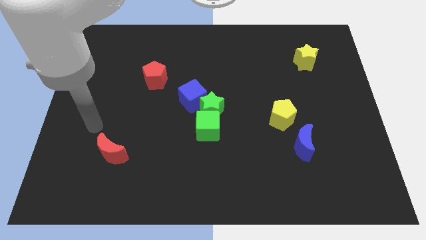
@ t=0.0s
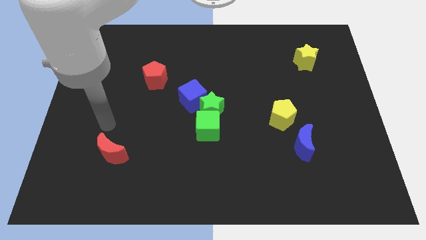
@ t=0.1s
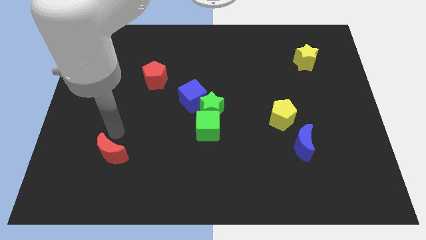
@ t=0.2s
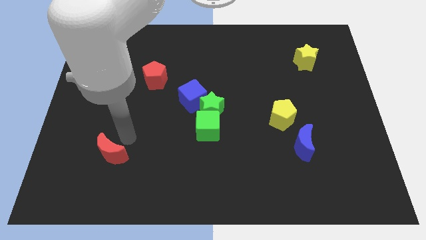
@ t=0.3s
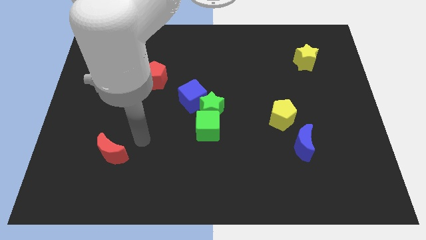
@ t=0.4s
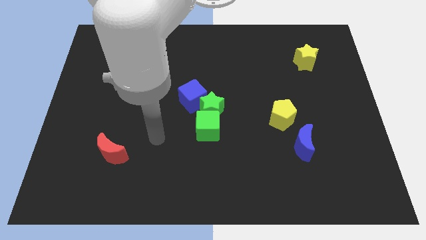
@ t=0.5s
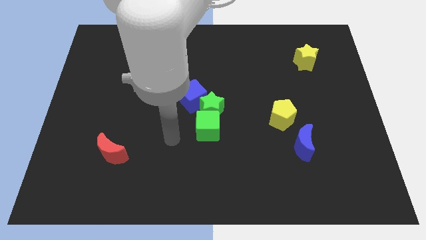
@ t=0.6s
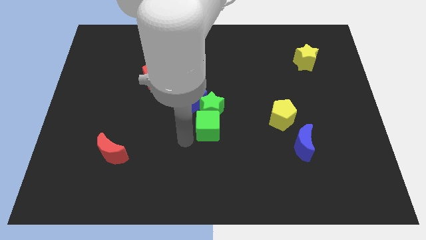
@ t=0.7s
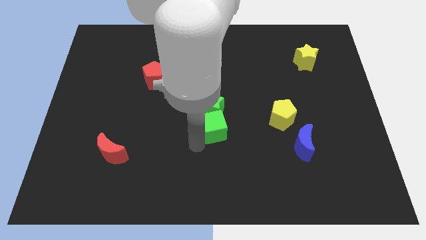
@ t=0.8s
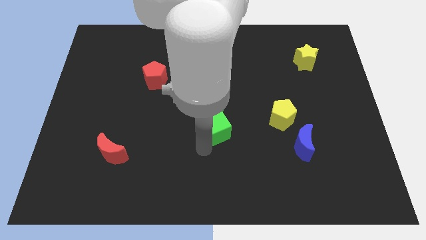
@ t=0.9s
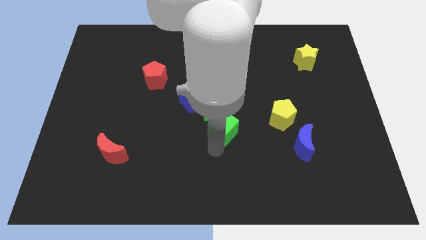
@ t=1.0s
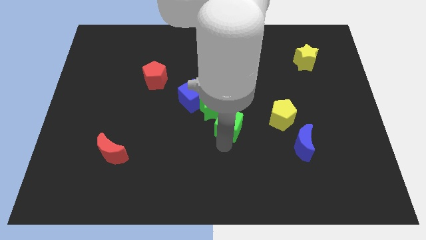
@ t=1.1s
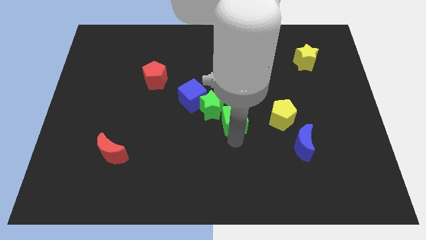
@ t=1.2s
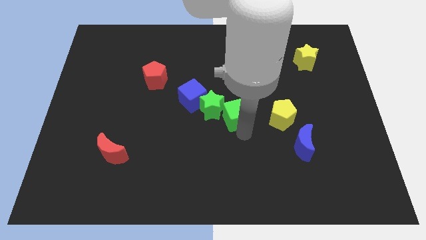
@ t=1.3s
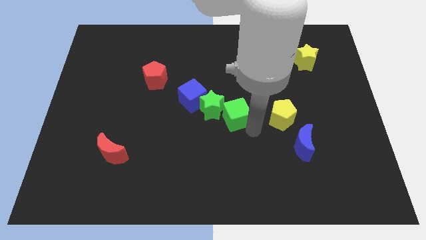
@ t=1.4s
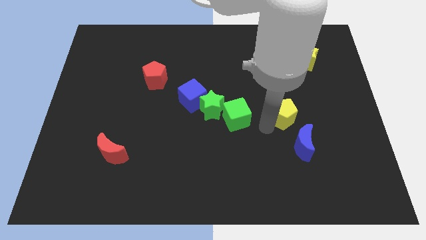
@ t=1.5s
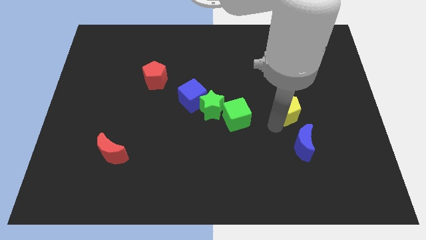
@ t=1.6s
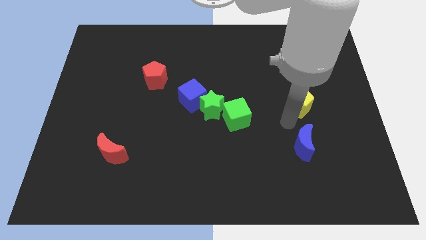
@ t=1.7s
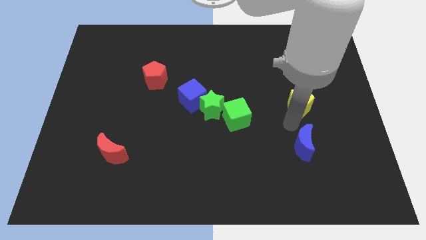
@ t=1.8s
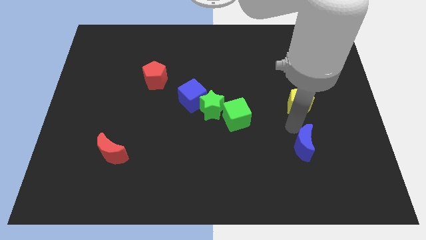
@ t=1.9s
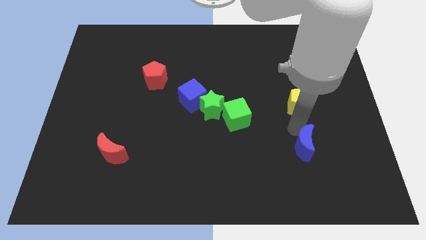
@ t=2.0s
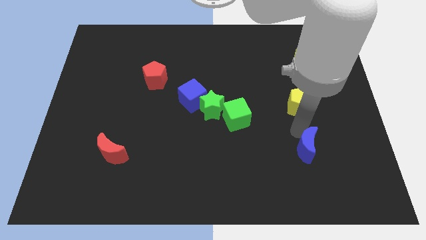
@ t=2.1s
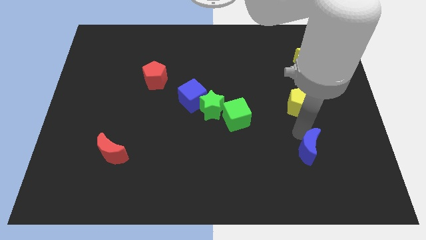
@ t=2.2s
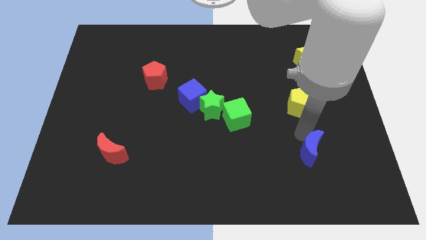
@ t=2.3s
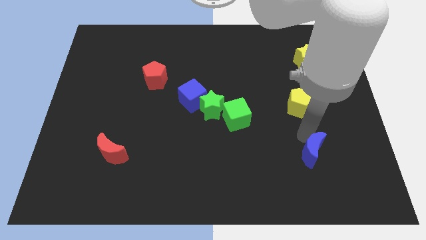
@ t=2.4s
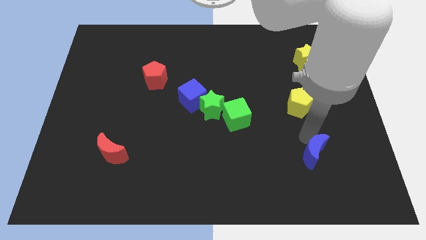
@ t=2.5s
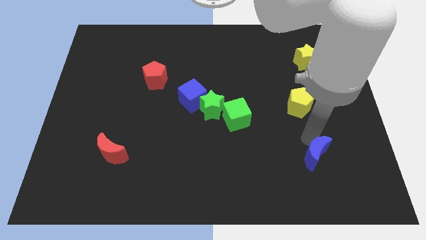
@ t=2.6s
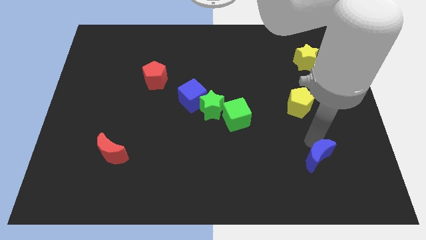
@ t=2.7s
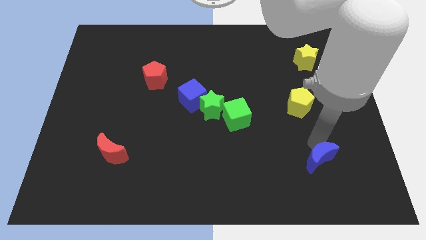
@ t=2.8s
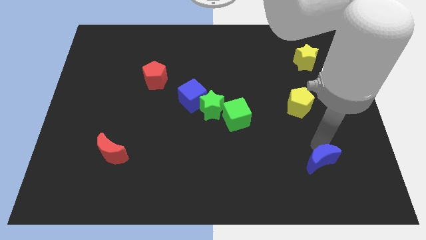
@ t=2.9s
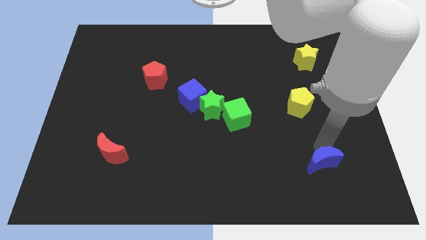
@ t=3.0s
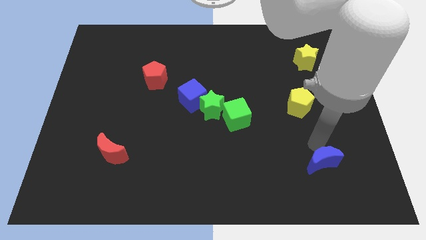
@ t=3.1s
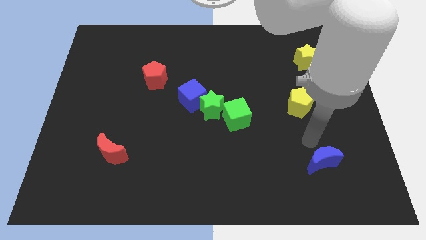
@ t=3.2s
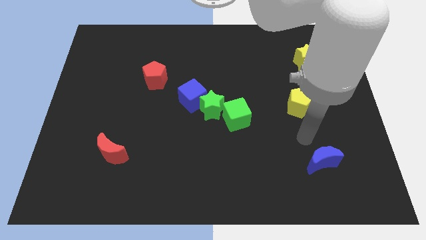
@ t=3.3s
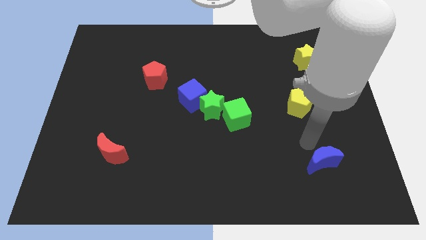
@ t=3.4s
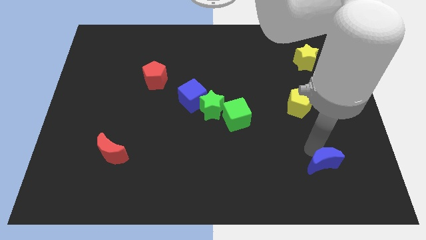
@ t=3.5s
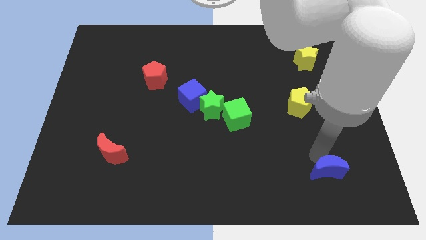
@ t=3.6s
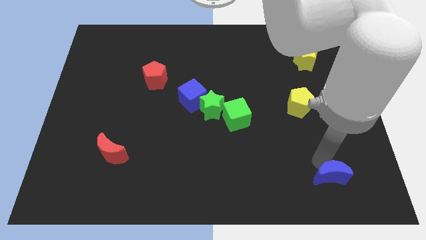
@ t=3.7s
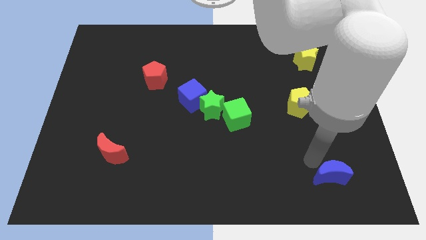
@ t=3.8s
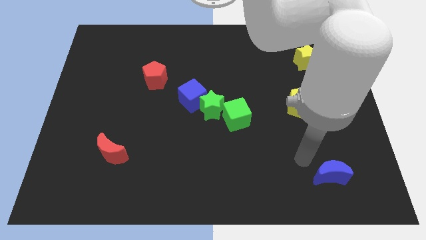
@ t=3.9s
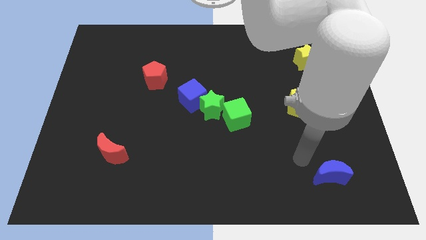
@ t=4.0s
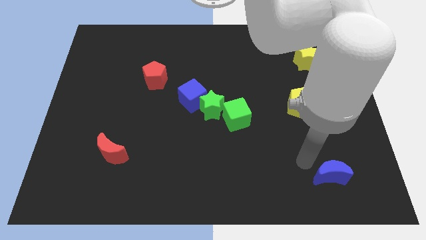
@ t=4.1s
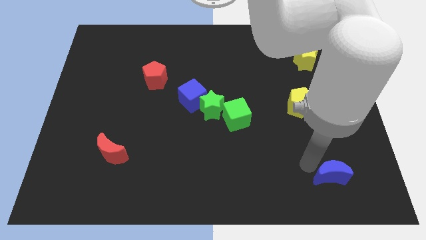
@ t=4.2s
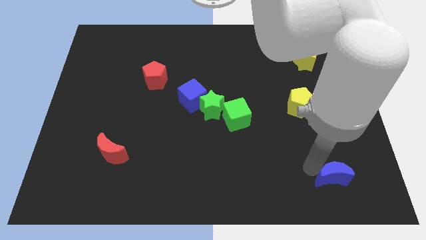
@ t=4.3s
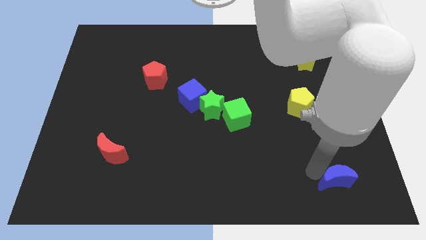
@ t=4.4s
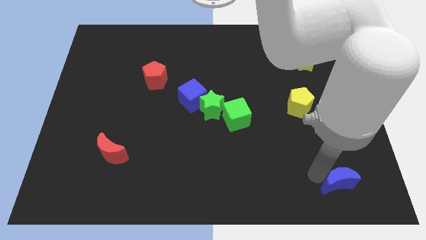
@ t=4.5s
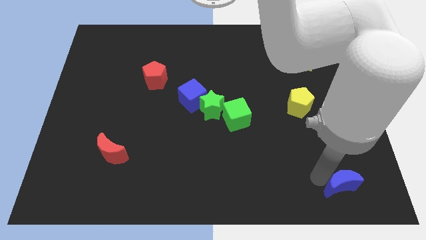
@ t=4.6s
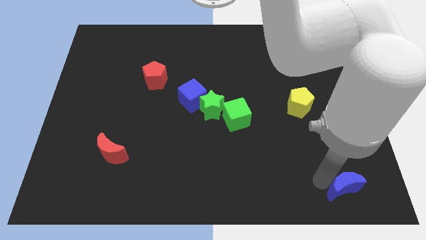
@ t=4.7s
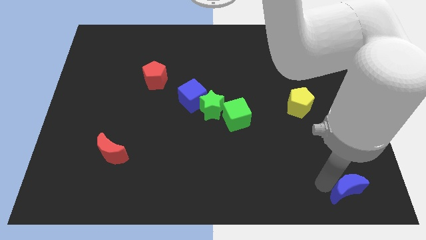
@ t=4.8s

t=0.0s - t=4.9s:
put the blue moon to the bottom right of the board

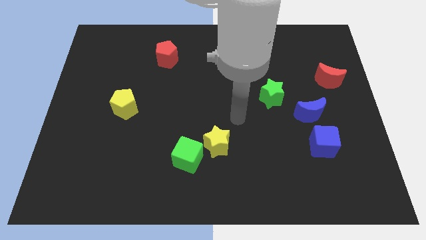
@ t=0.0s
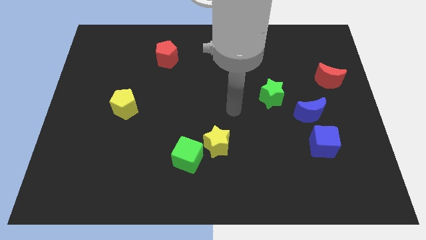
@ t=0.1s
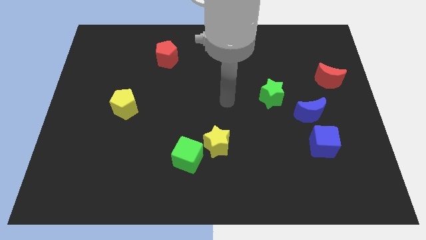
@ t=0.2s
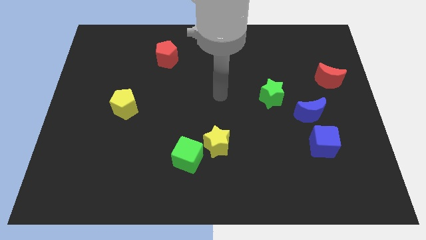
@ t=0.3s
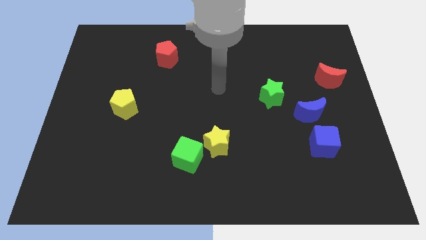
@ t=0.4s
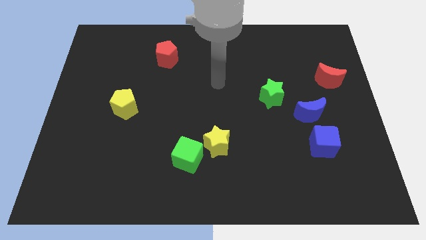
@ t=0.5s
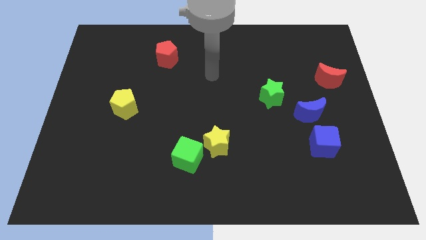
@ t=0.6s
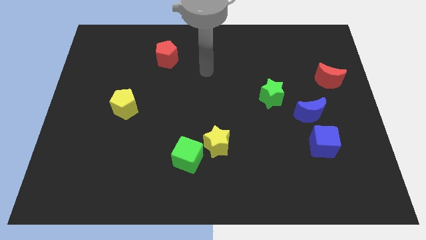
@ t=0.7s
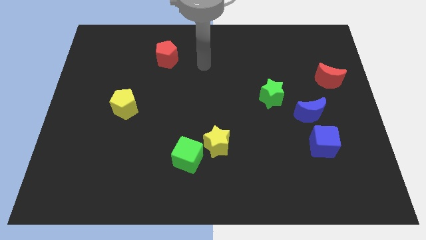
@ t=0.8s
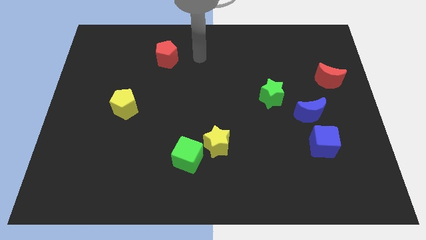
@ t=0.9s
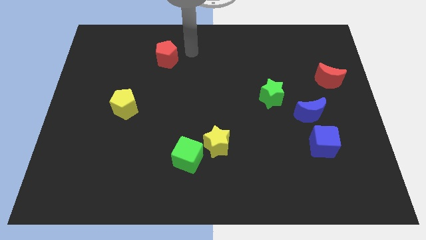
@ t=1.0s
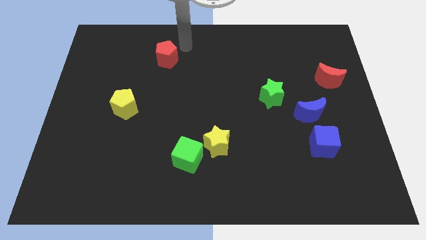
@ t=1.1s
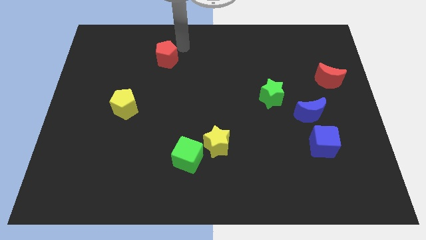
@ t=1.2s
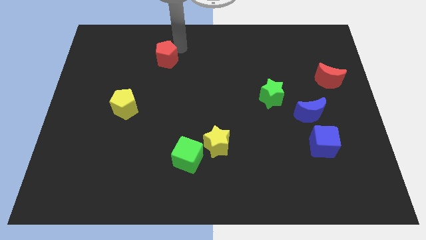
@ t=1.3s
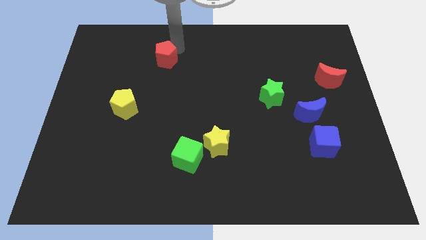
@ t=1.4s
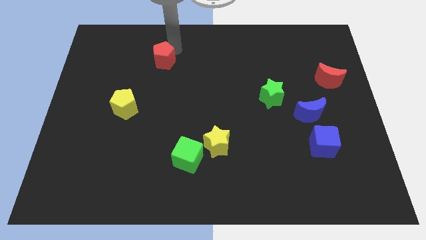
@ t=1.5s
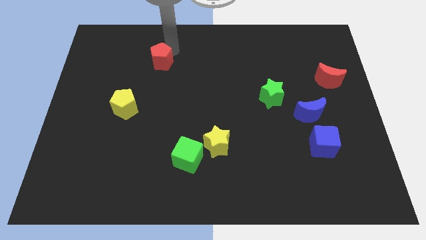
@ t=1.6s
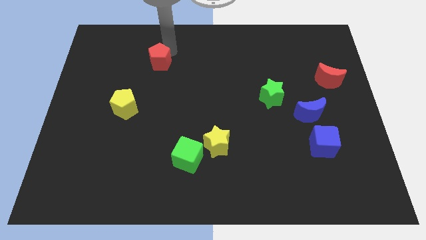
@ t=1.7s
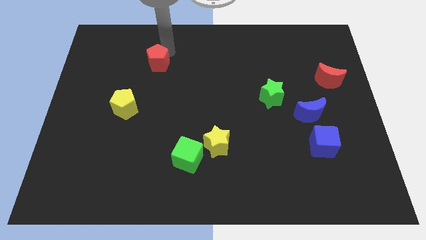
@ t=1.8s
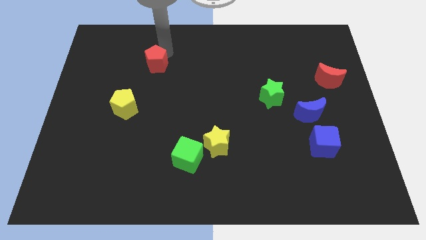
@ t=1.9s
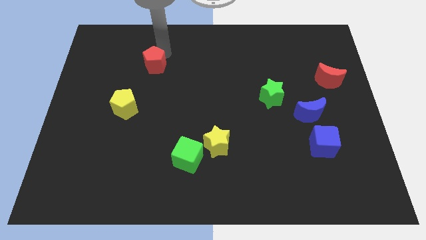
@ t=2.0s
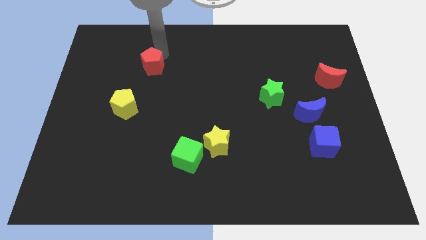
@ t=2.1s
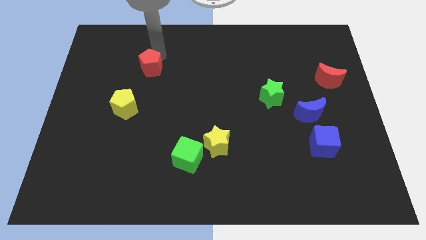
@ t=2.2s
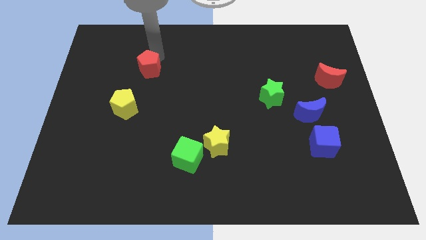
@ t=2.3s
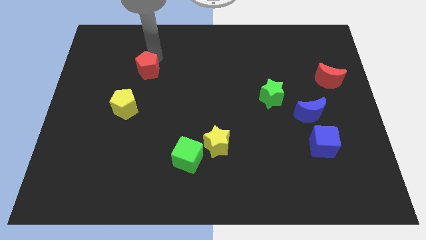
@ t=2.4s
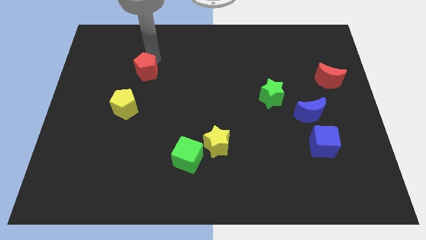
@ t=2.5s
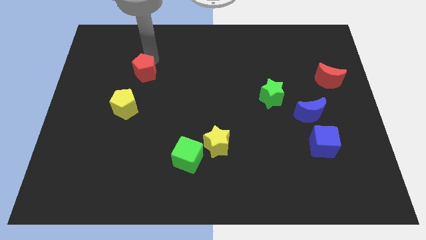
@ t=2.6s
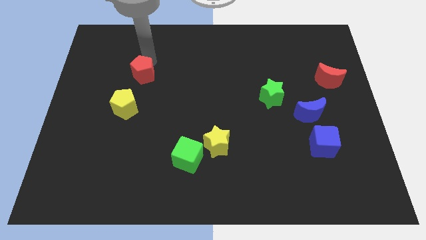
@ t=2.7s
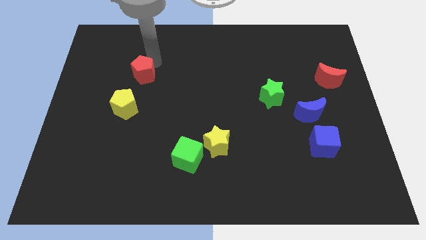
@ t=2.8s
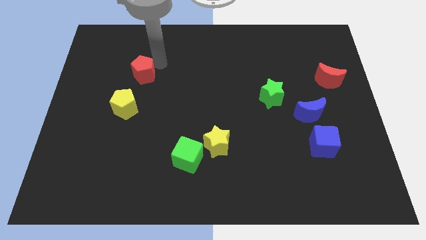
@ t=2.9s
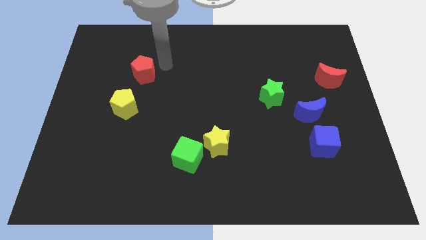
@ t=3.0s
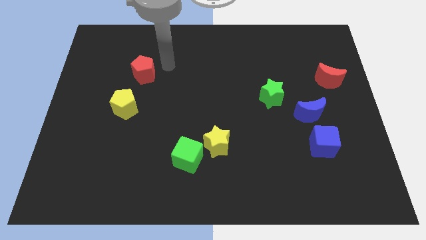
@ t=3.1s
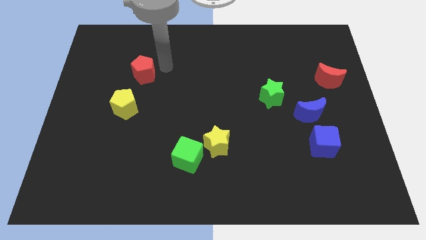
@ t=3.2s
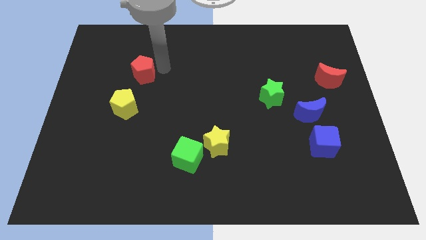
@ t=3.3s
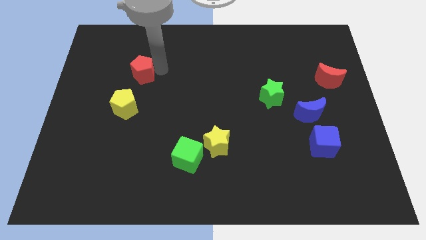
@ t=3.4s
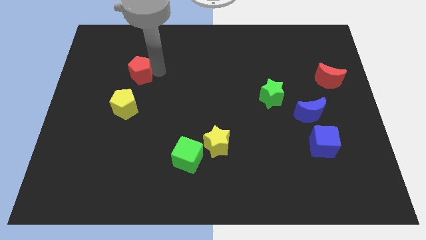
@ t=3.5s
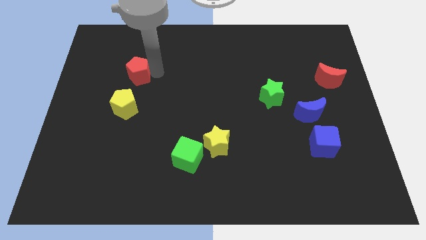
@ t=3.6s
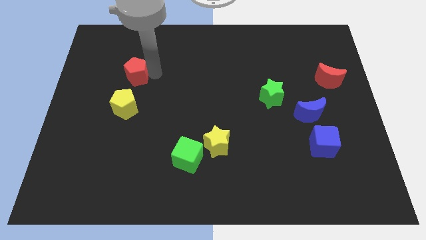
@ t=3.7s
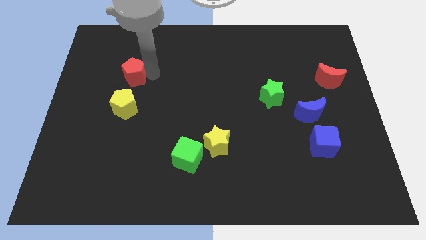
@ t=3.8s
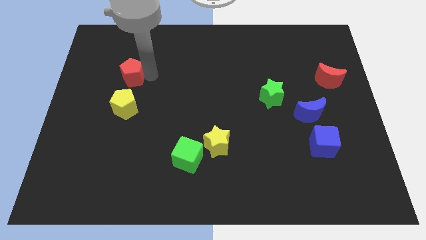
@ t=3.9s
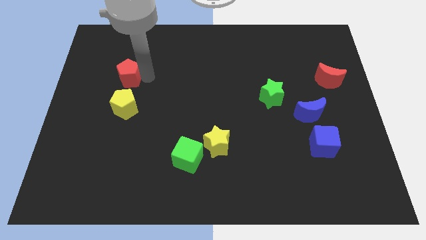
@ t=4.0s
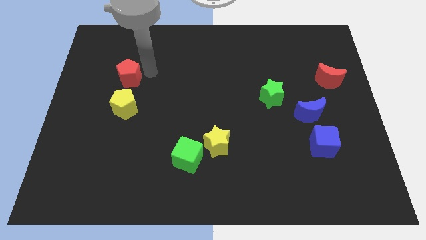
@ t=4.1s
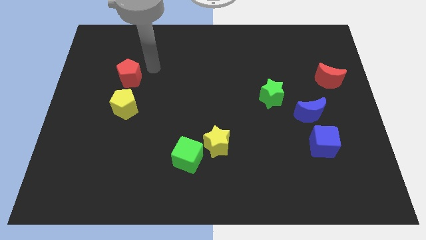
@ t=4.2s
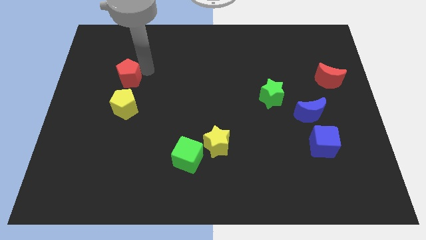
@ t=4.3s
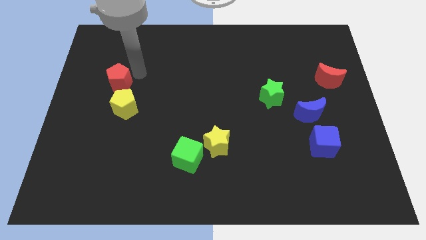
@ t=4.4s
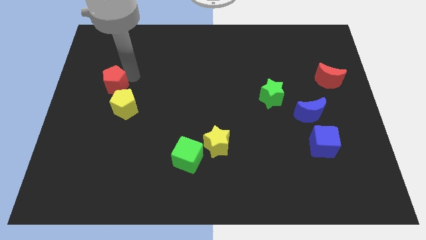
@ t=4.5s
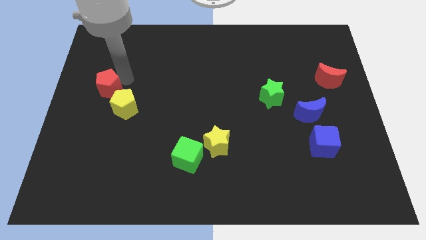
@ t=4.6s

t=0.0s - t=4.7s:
push the red pentagon to the left side
